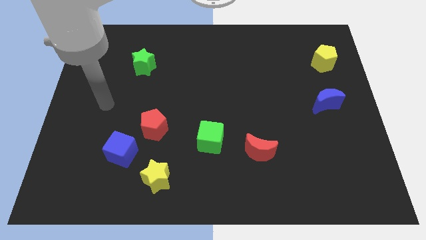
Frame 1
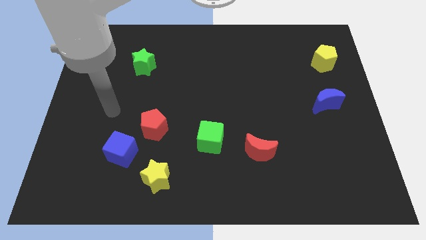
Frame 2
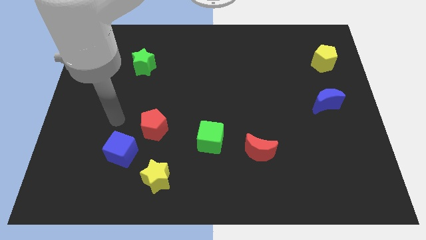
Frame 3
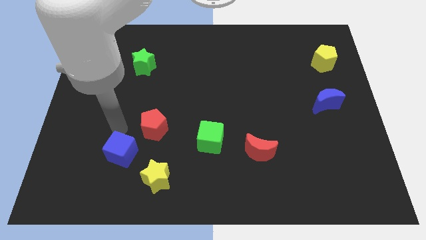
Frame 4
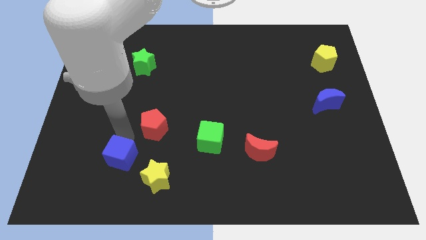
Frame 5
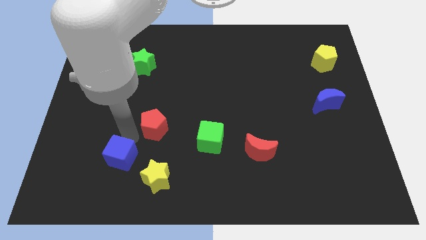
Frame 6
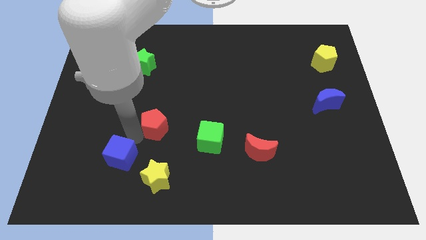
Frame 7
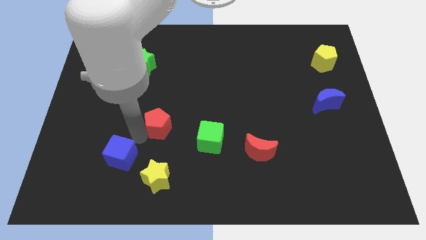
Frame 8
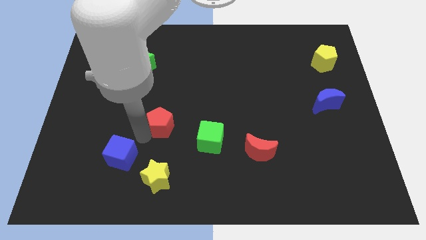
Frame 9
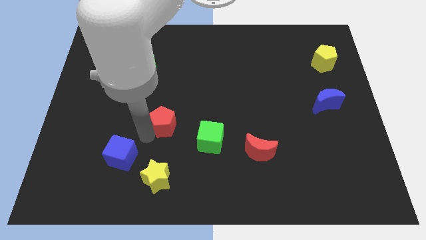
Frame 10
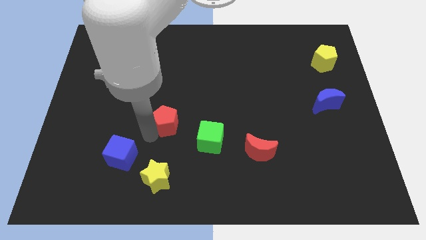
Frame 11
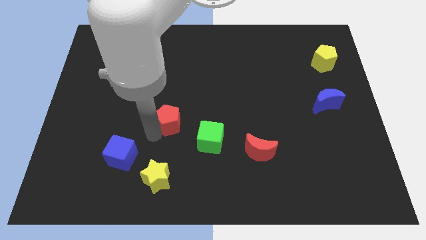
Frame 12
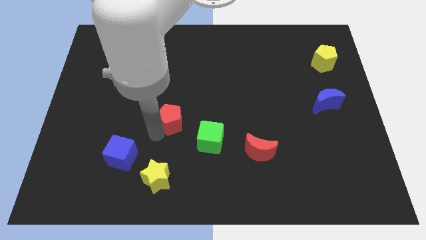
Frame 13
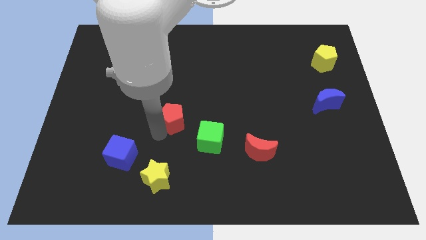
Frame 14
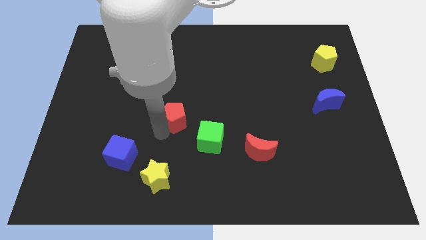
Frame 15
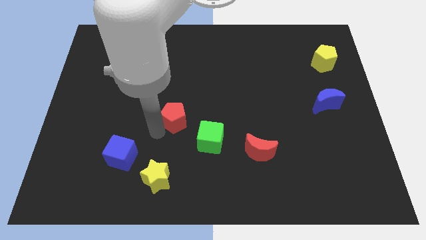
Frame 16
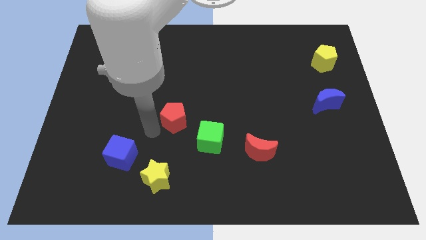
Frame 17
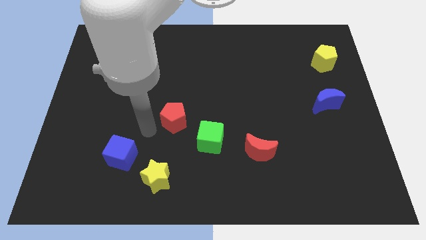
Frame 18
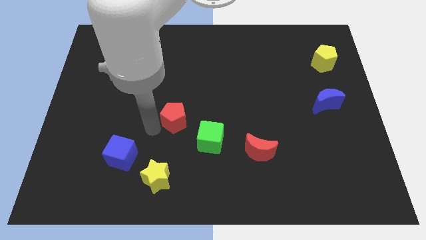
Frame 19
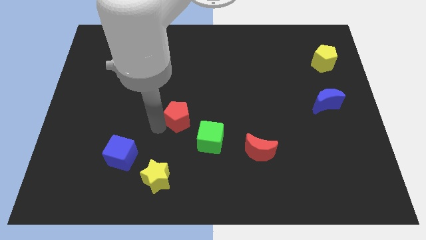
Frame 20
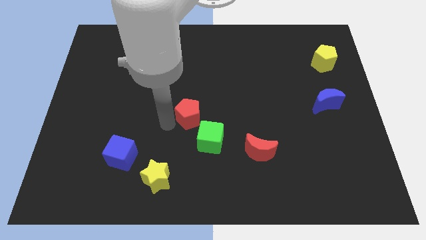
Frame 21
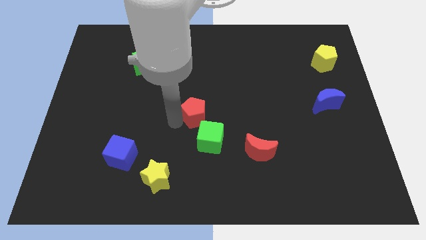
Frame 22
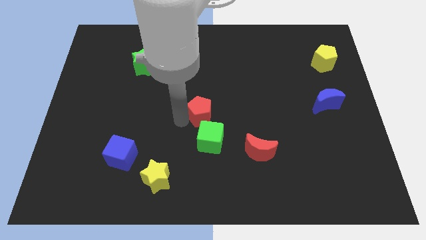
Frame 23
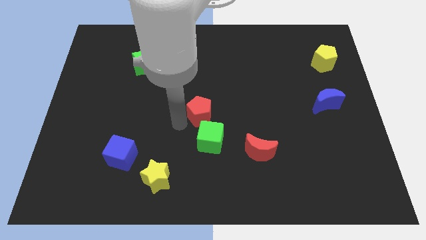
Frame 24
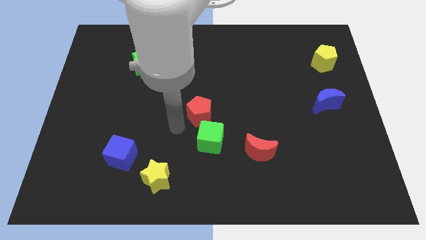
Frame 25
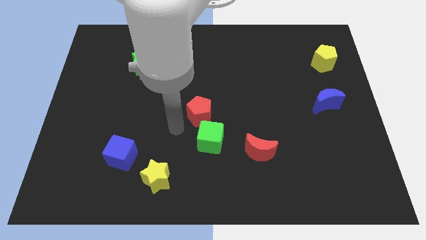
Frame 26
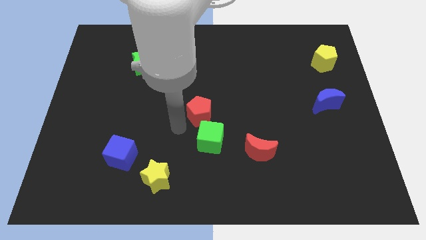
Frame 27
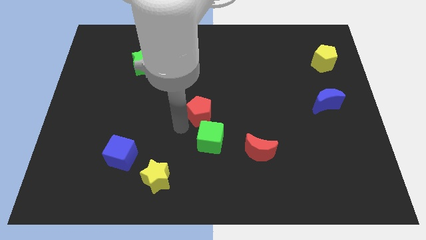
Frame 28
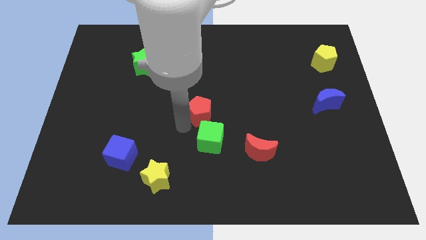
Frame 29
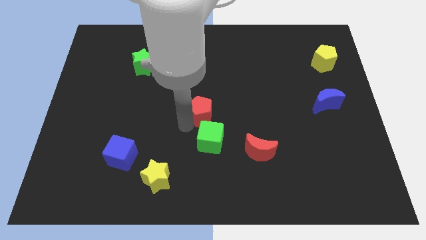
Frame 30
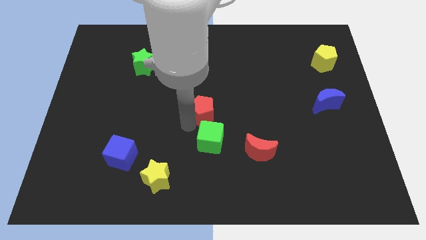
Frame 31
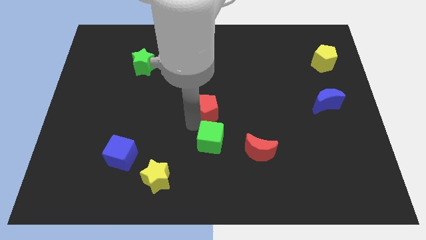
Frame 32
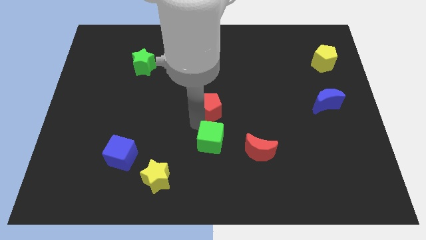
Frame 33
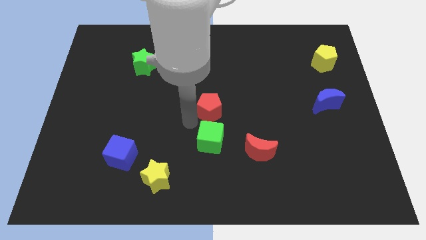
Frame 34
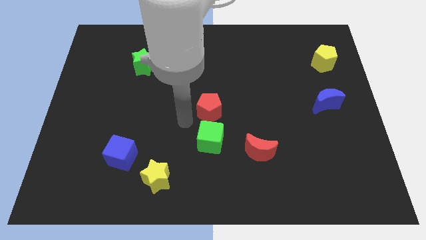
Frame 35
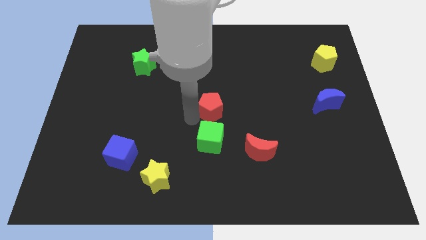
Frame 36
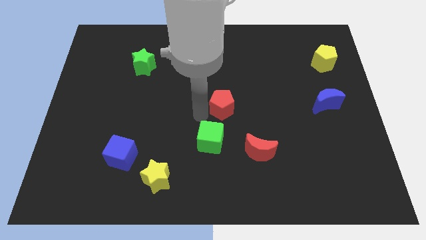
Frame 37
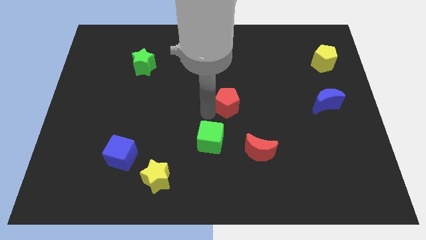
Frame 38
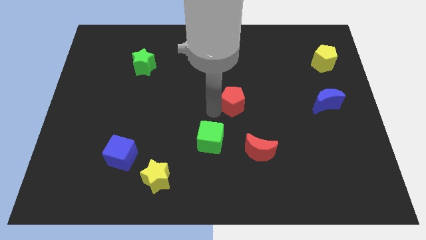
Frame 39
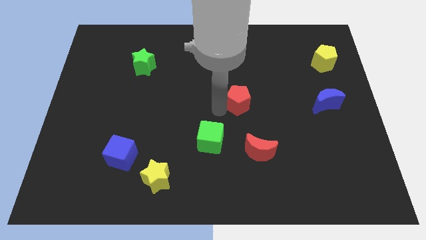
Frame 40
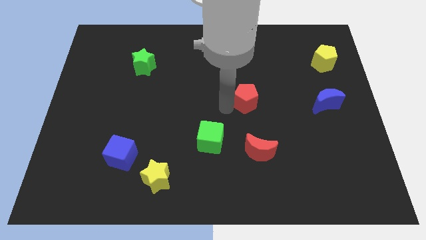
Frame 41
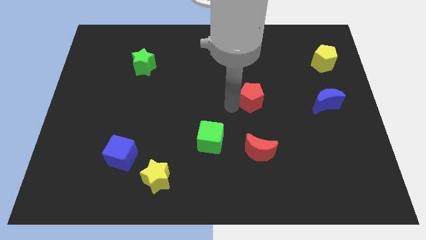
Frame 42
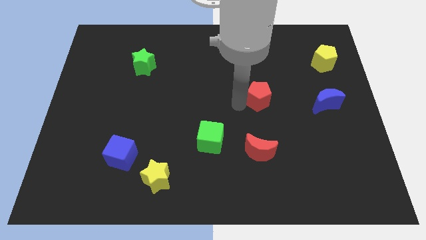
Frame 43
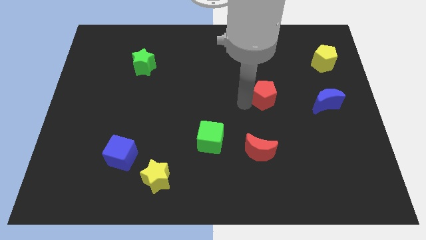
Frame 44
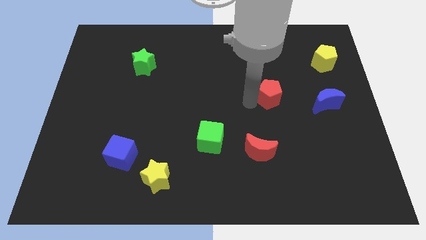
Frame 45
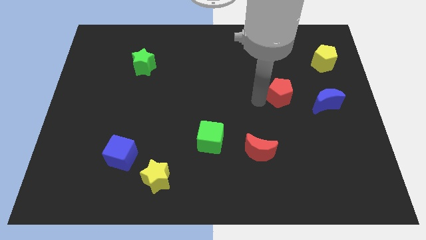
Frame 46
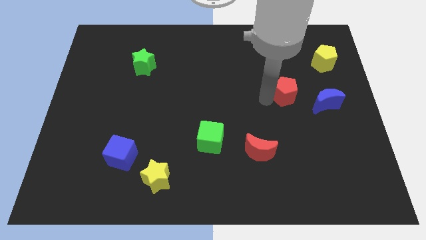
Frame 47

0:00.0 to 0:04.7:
push the red pentagon to the top left of the blue moon

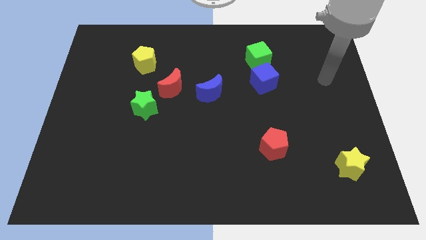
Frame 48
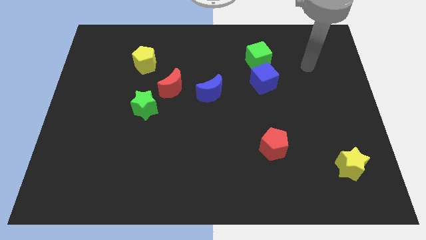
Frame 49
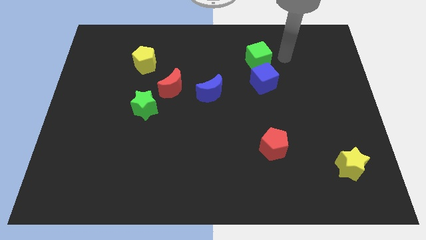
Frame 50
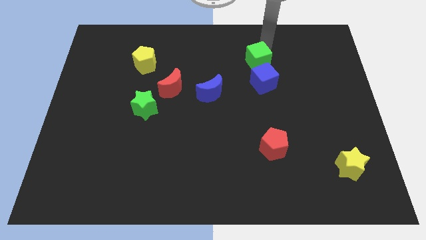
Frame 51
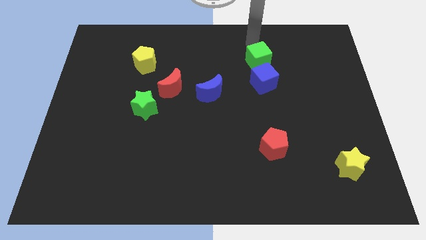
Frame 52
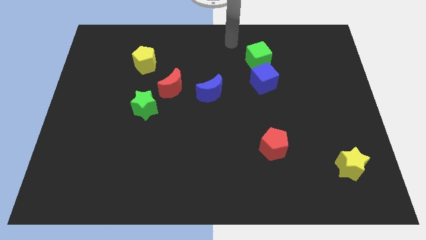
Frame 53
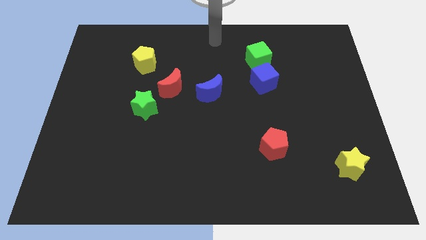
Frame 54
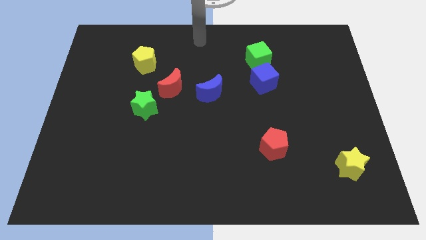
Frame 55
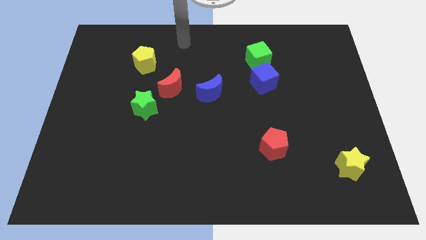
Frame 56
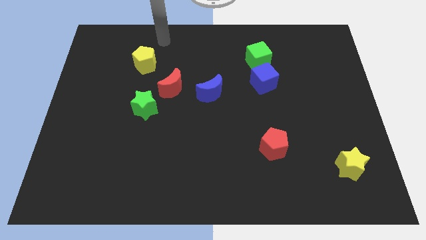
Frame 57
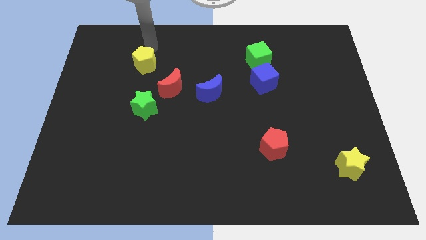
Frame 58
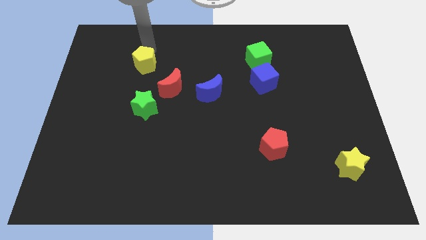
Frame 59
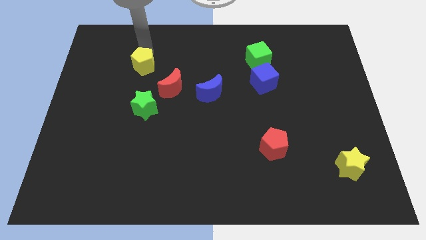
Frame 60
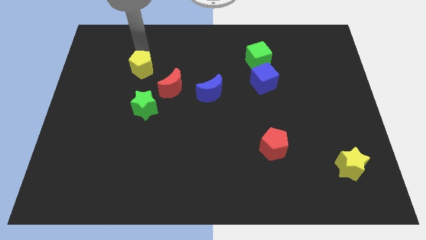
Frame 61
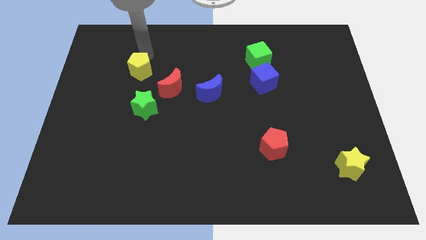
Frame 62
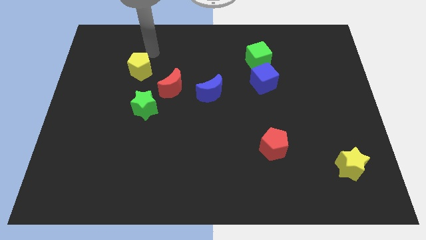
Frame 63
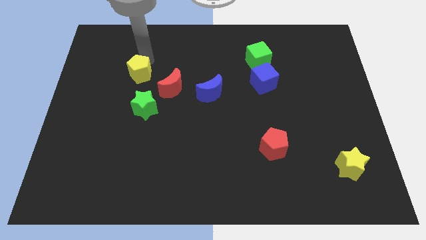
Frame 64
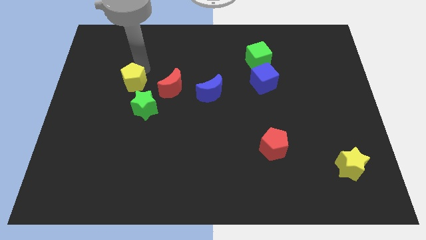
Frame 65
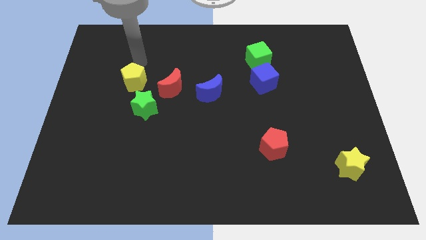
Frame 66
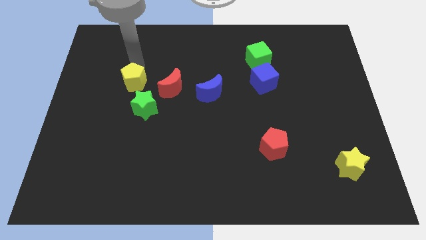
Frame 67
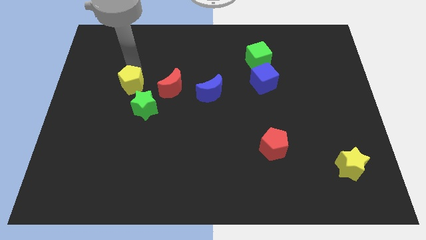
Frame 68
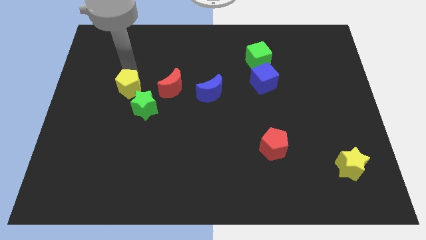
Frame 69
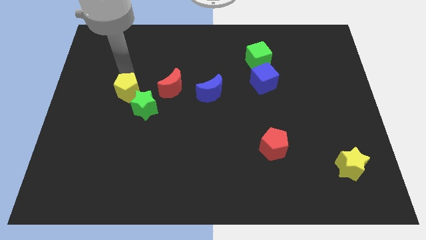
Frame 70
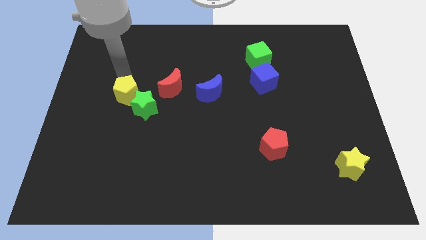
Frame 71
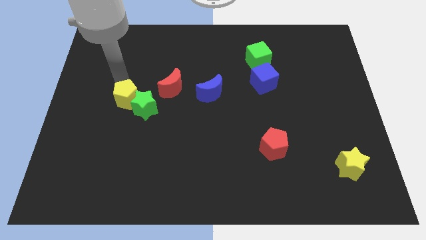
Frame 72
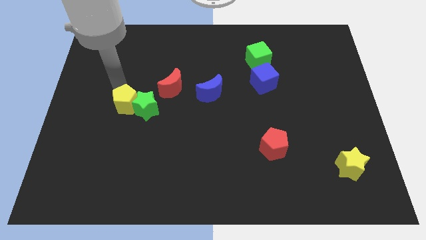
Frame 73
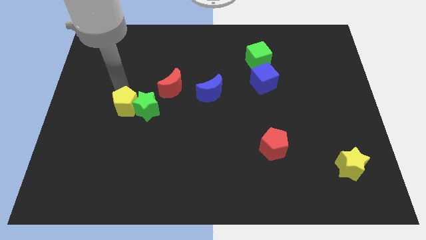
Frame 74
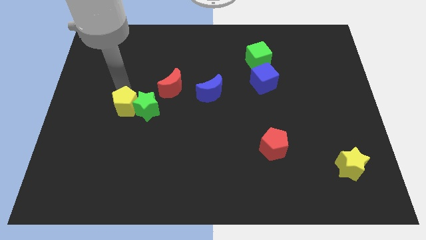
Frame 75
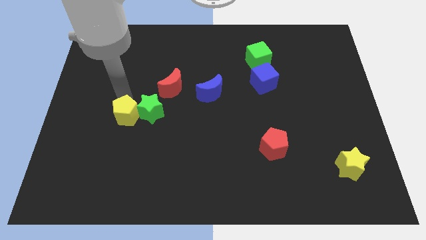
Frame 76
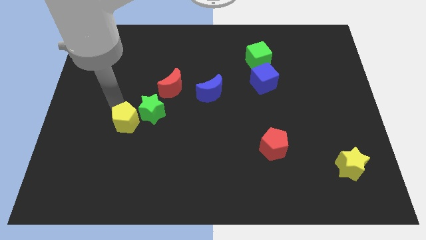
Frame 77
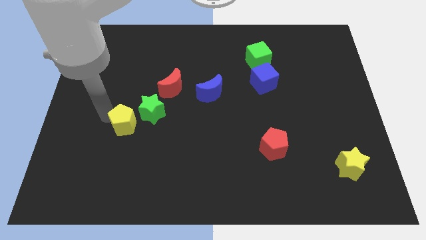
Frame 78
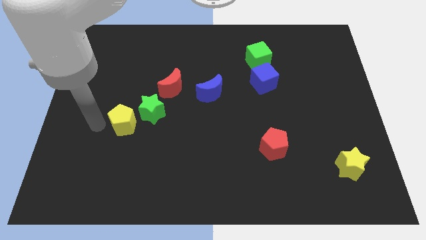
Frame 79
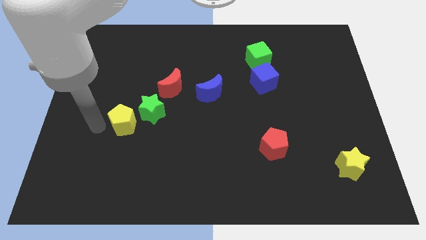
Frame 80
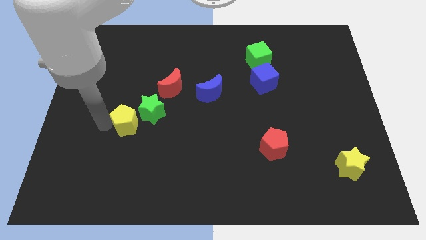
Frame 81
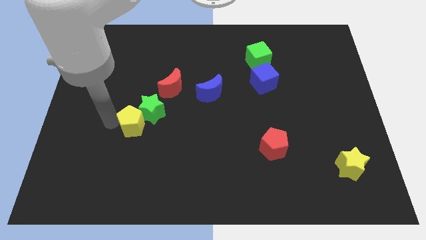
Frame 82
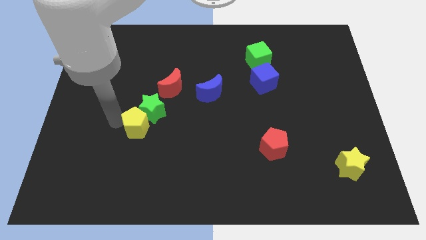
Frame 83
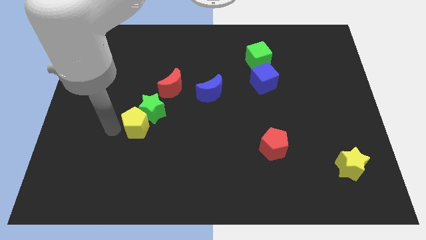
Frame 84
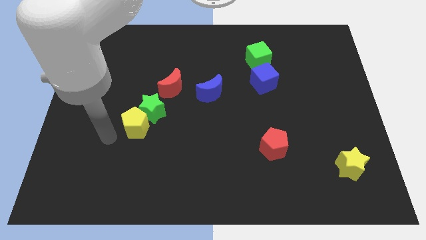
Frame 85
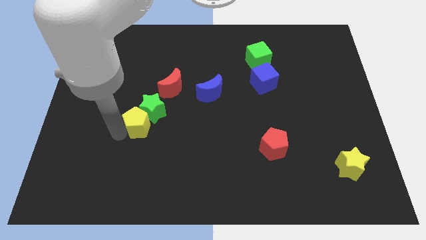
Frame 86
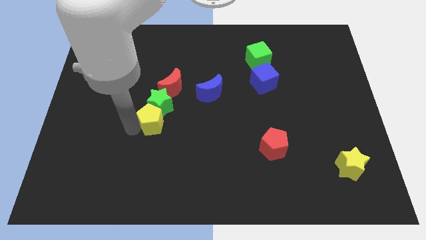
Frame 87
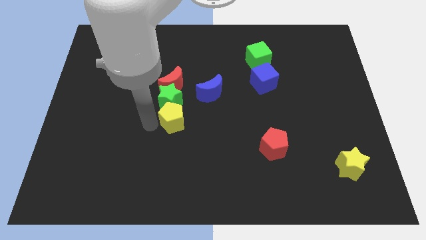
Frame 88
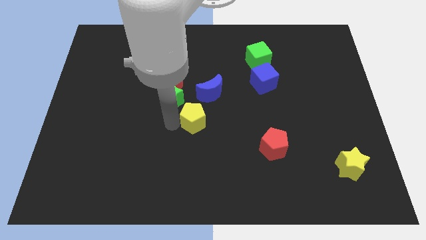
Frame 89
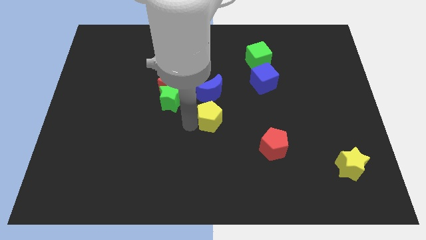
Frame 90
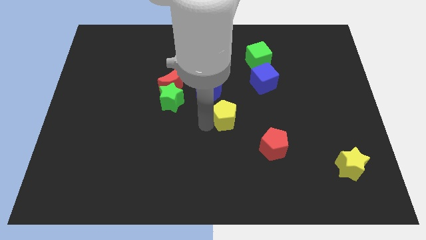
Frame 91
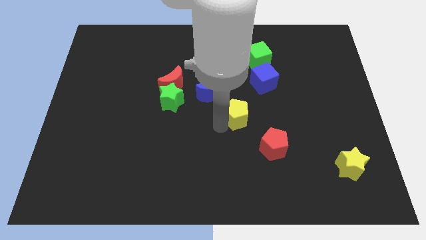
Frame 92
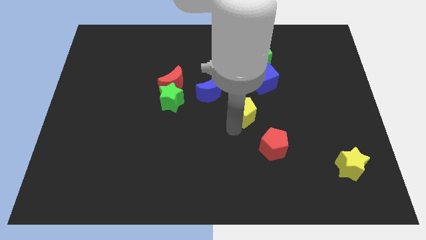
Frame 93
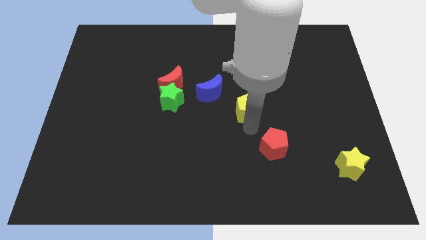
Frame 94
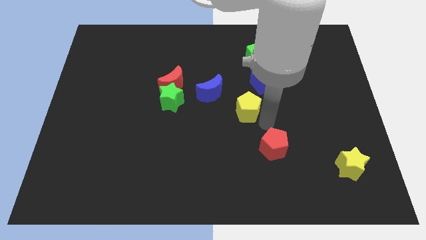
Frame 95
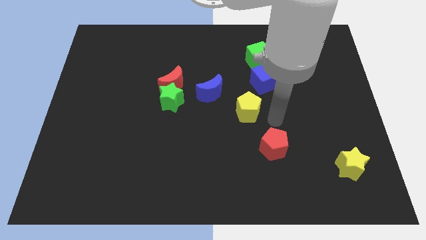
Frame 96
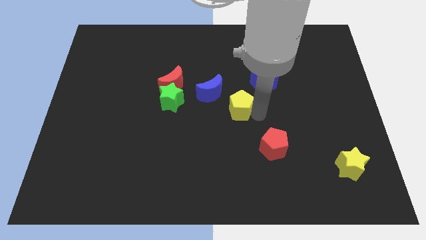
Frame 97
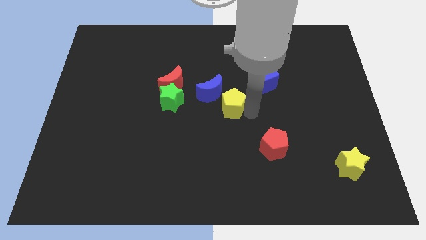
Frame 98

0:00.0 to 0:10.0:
move the yellow pentagon right of the green star
